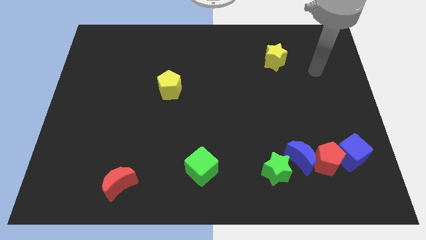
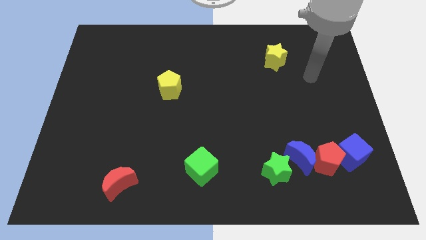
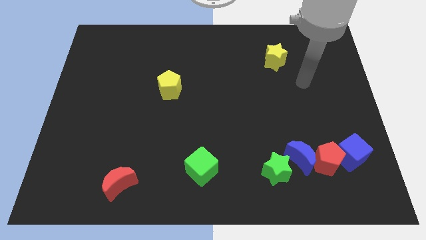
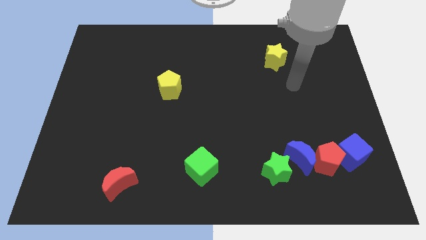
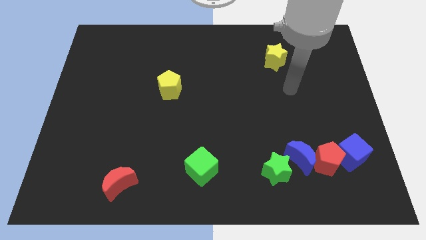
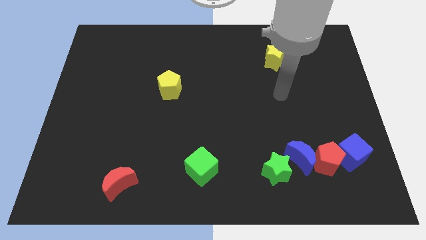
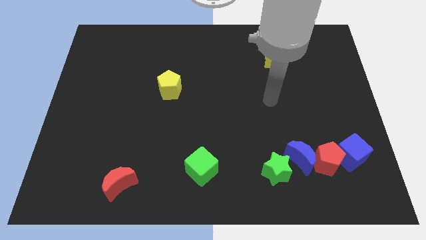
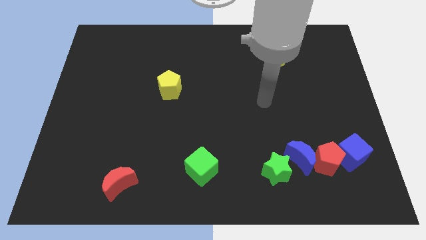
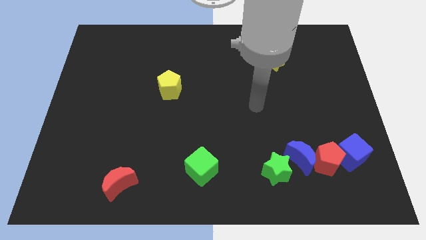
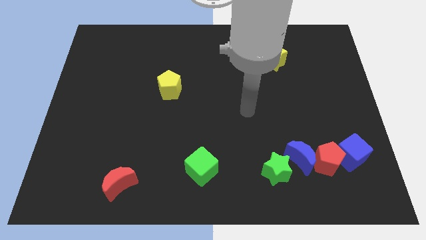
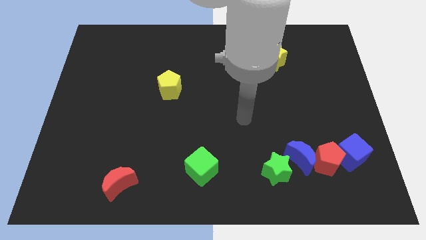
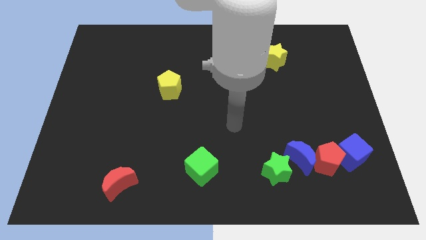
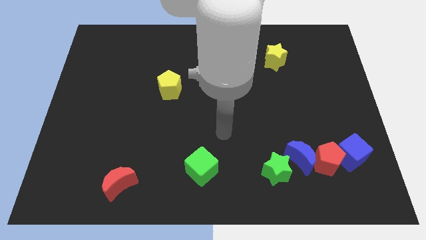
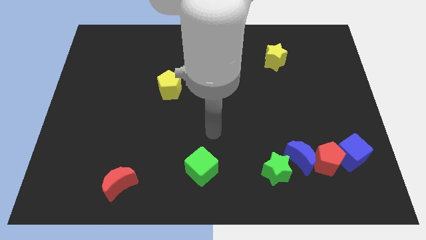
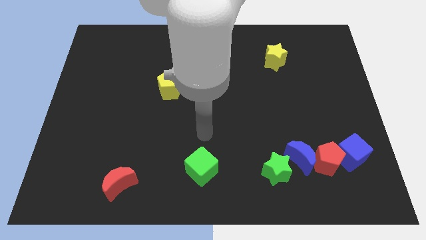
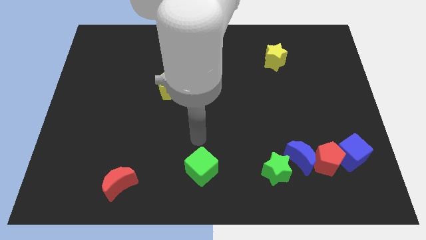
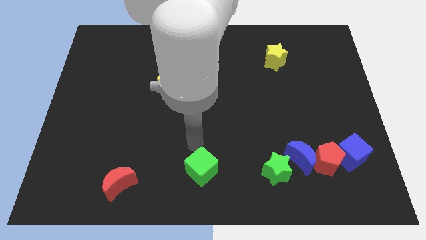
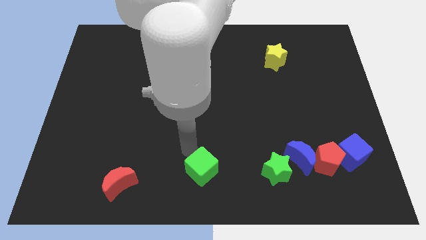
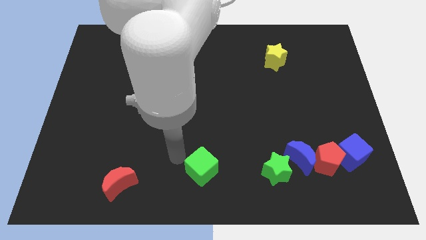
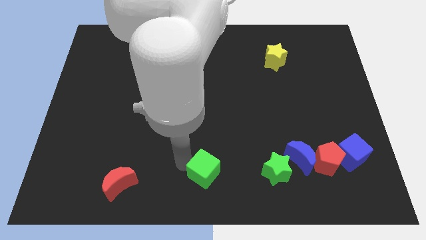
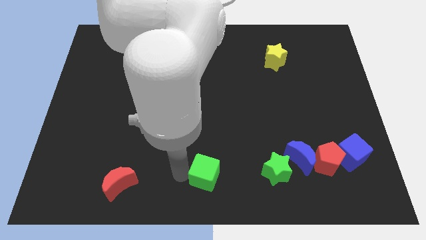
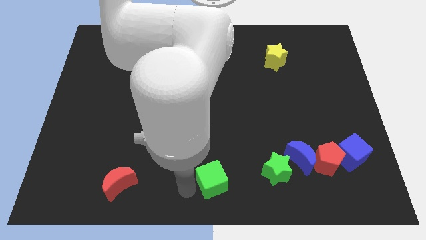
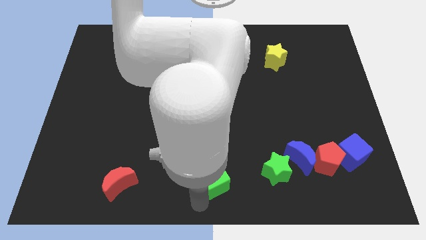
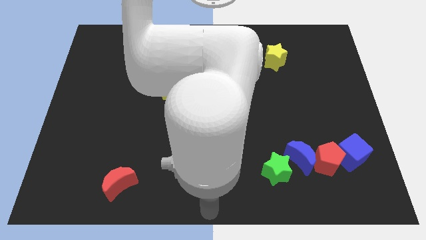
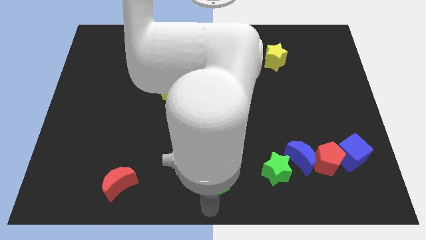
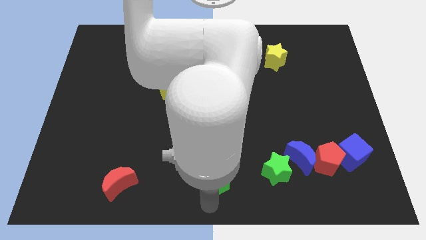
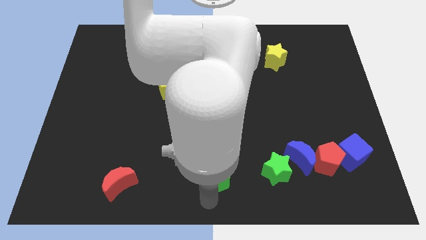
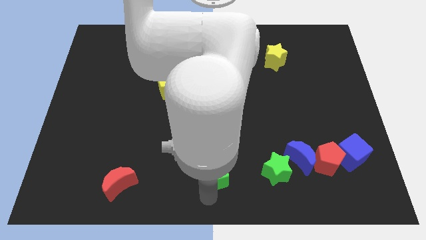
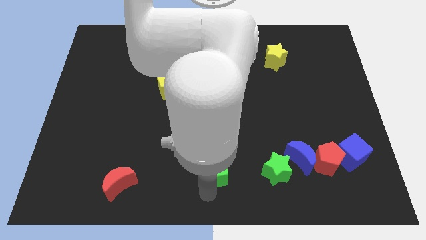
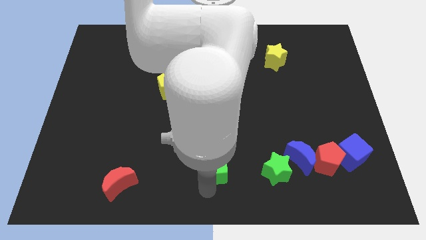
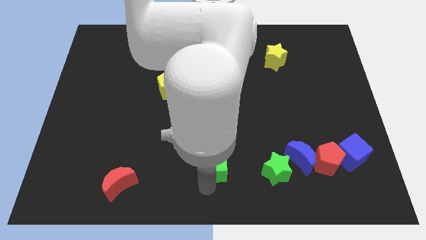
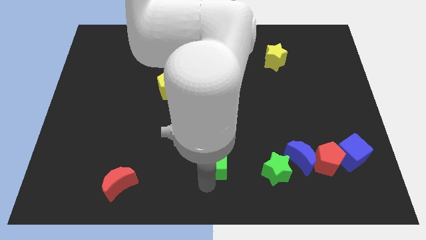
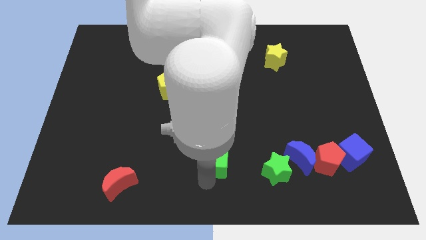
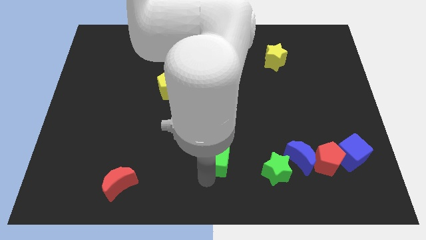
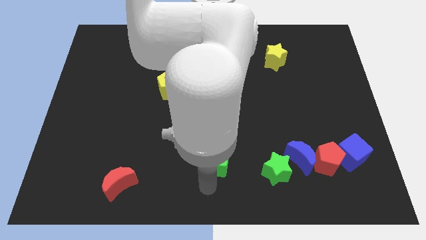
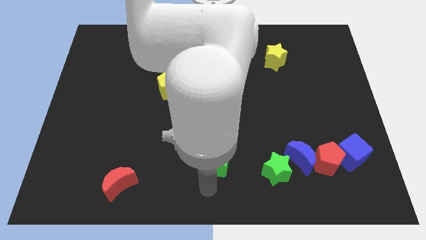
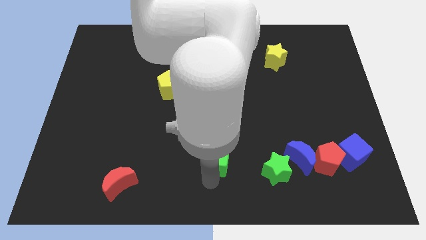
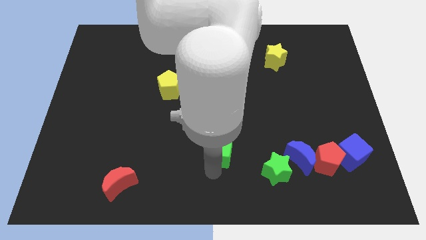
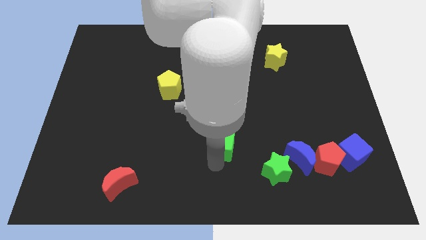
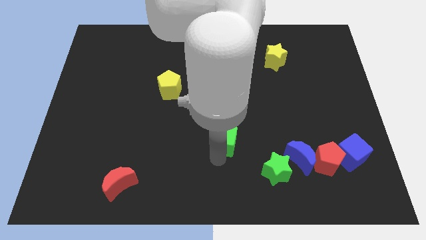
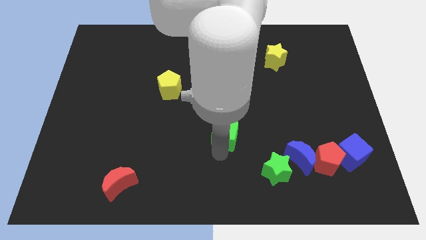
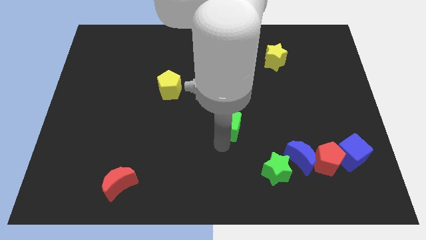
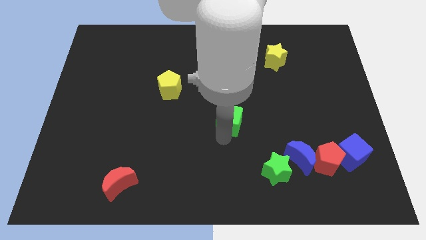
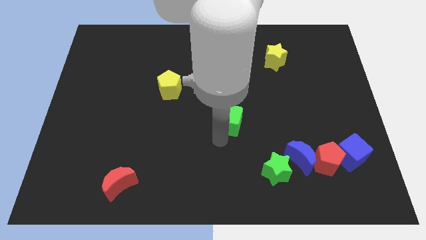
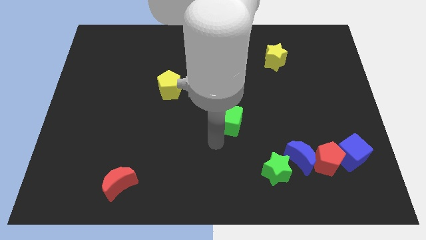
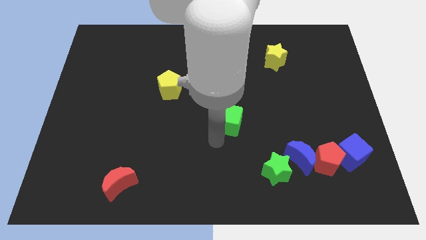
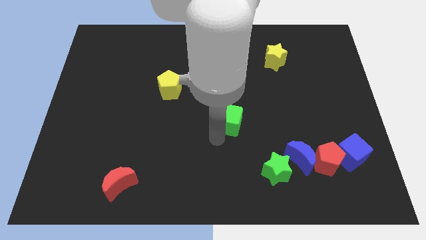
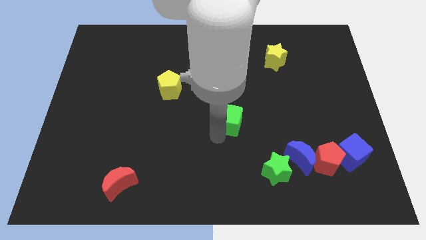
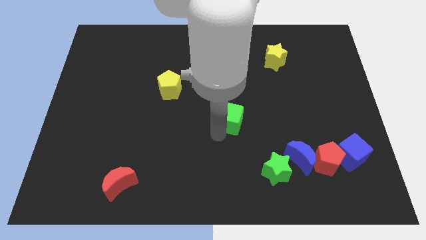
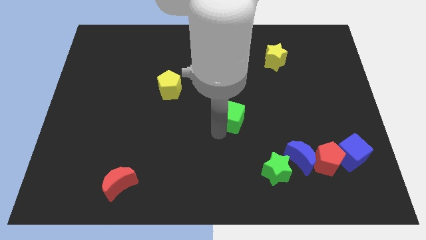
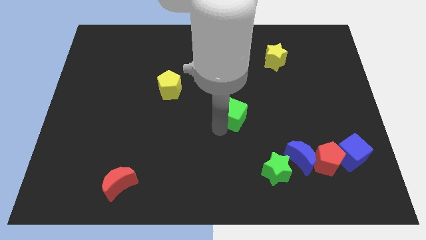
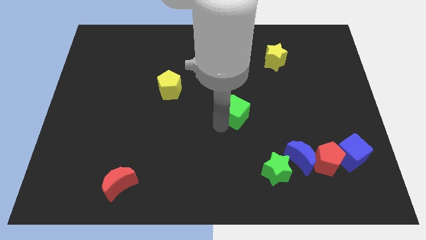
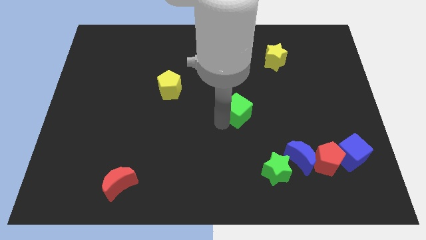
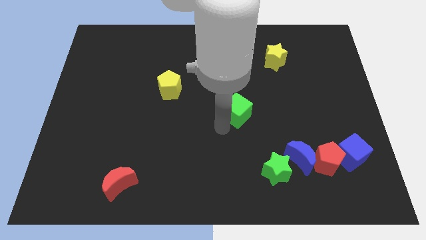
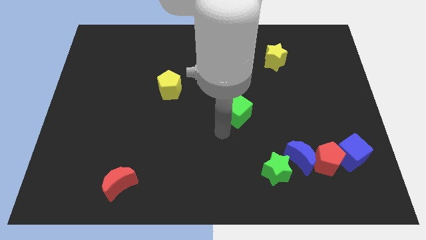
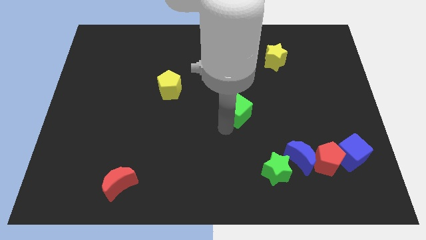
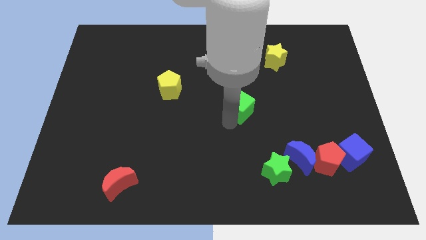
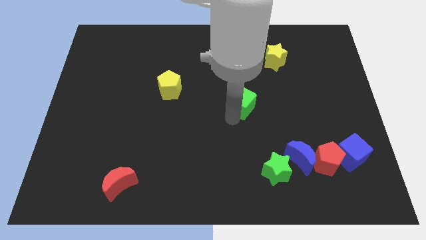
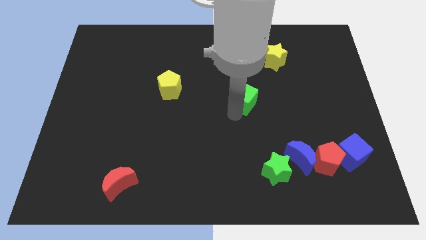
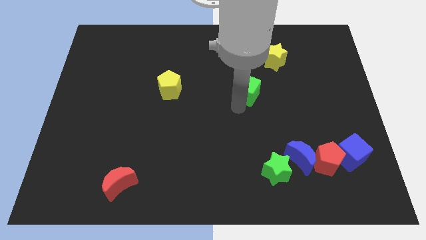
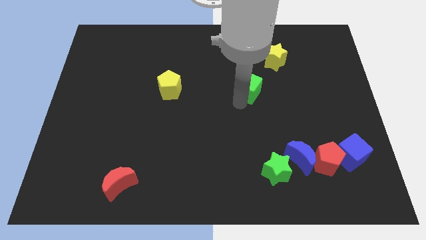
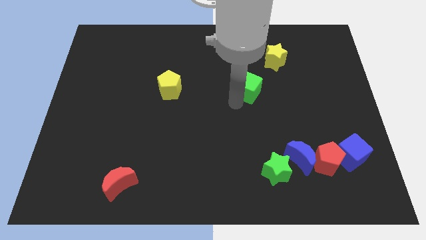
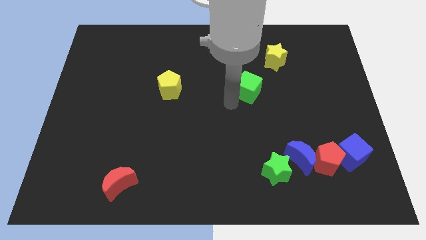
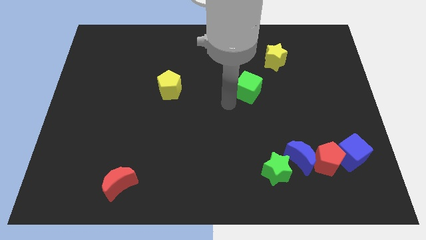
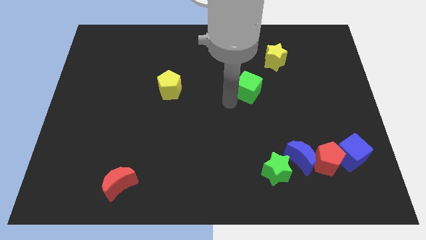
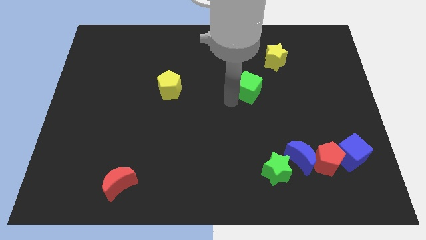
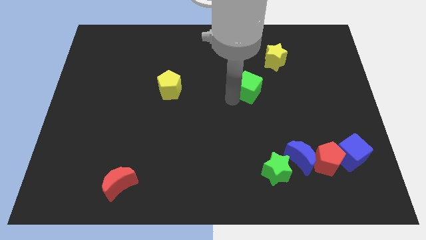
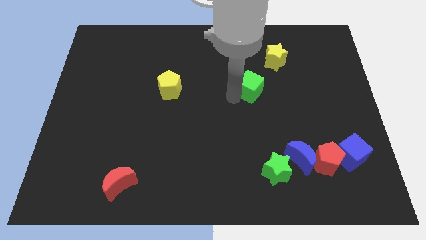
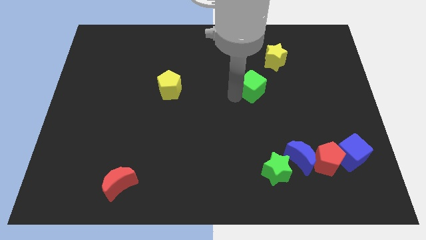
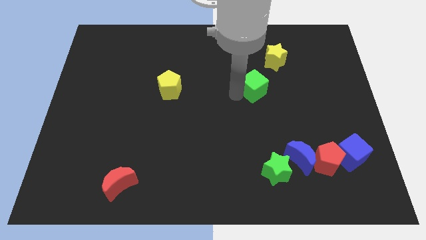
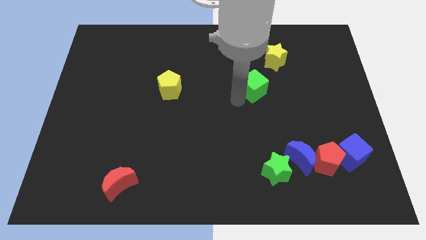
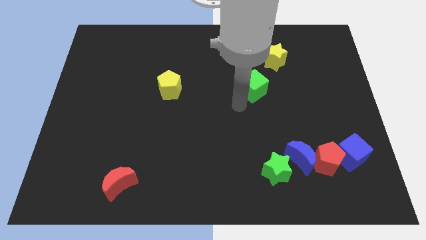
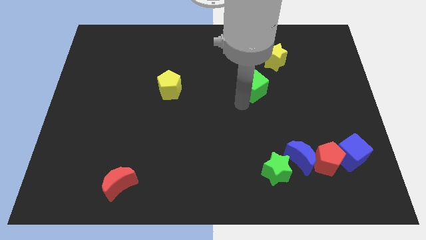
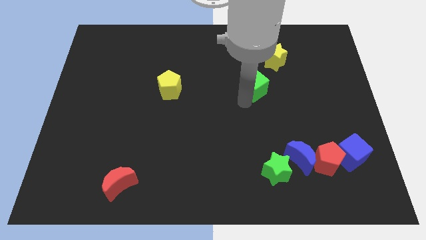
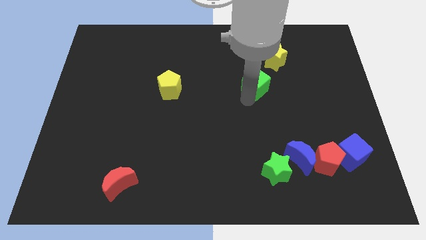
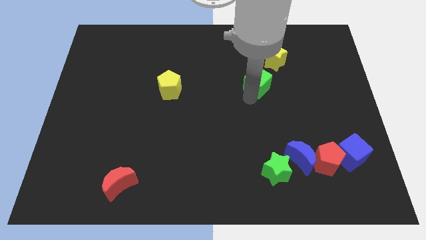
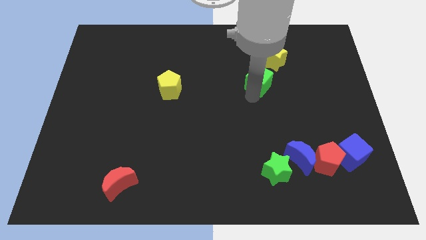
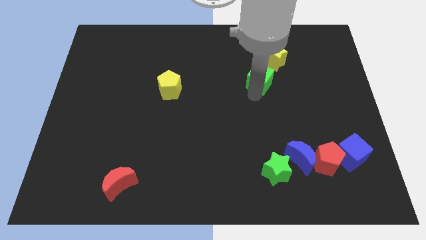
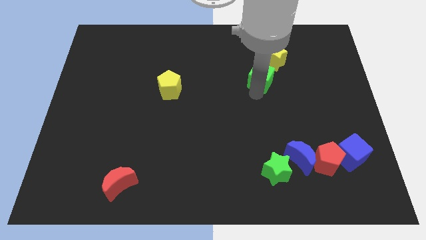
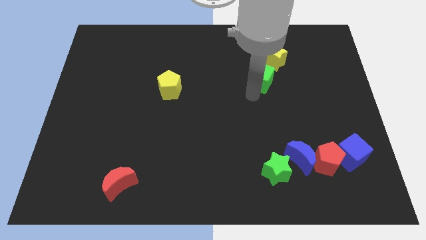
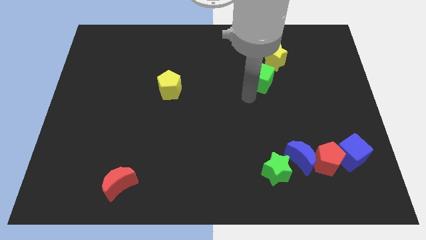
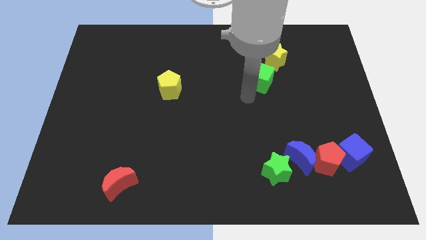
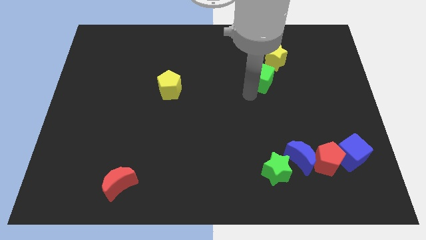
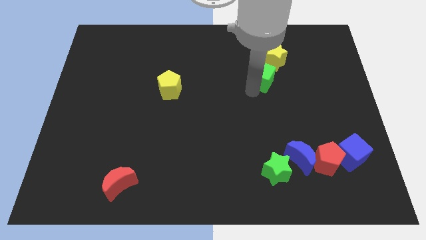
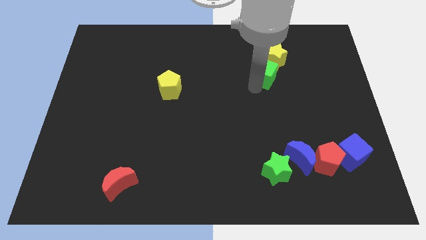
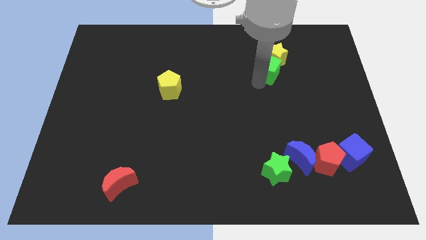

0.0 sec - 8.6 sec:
slide the green cube next to the yellow star
